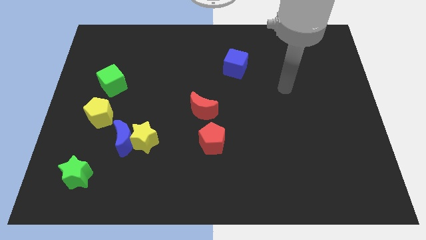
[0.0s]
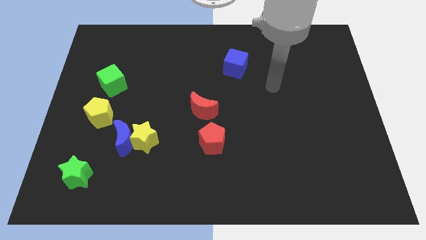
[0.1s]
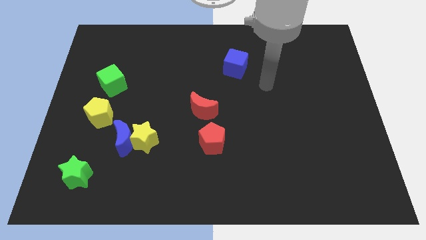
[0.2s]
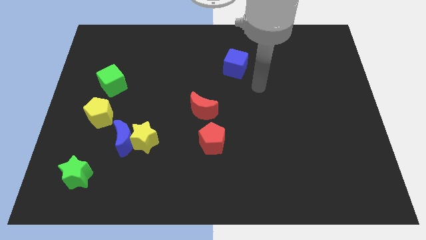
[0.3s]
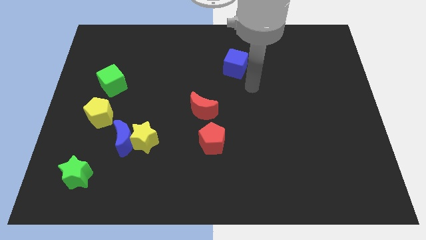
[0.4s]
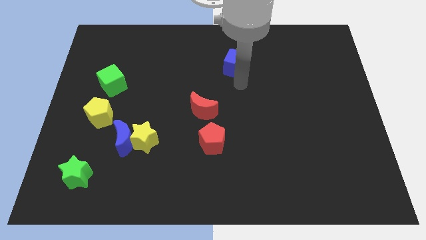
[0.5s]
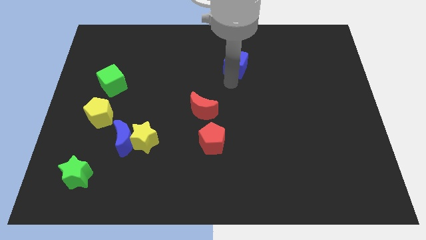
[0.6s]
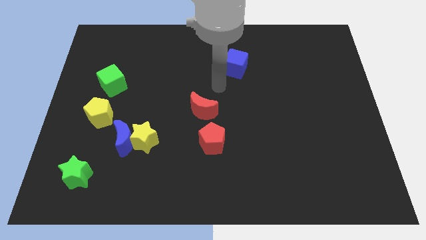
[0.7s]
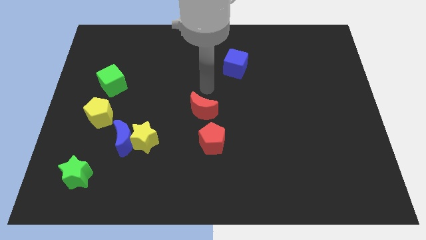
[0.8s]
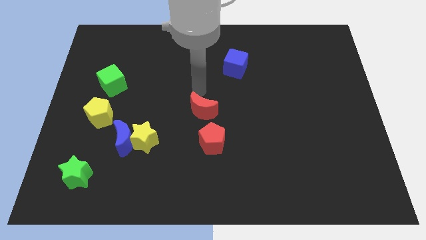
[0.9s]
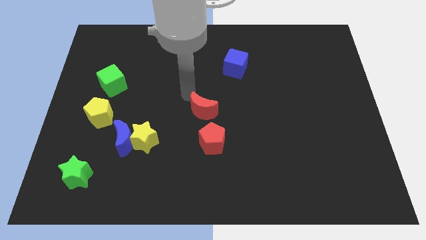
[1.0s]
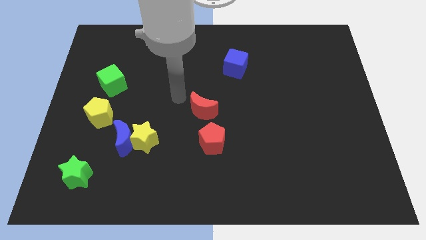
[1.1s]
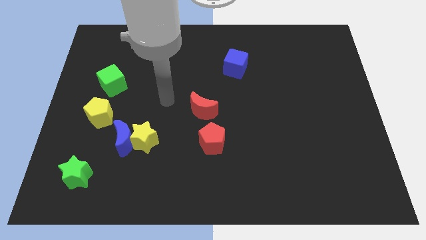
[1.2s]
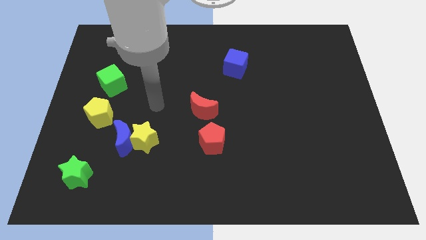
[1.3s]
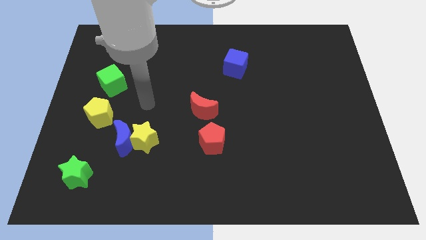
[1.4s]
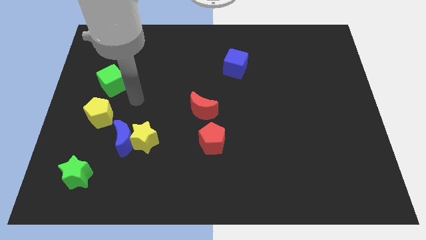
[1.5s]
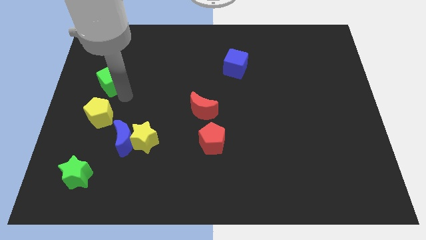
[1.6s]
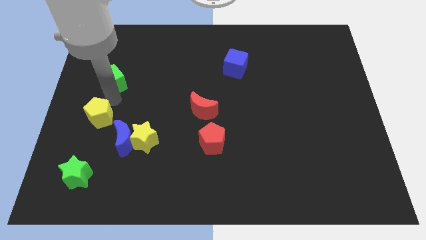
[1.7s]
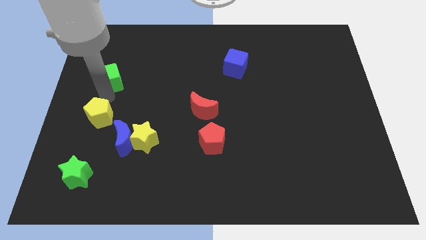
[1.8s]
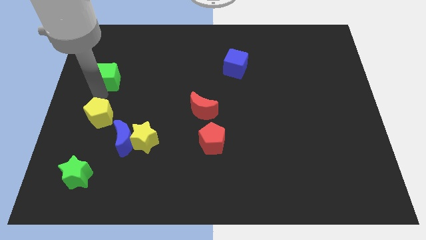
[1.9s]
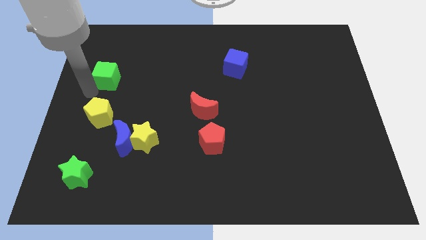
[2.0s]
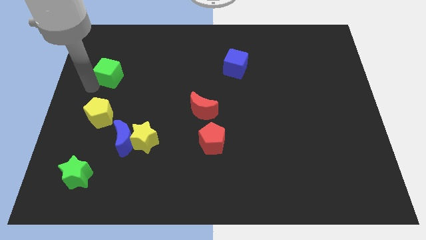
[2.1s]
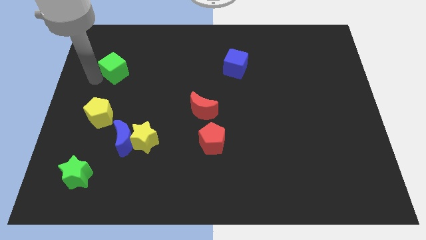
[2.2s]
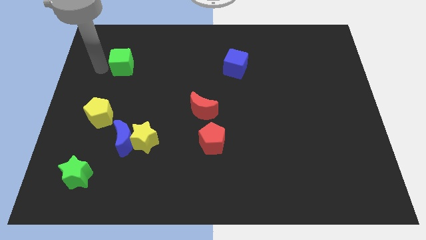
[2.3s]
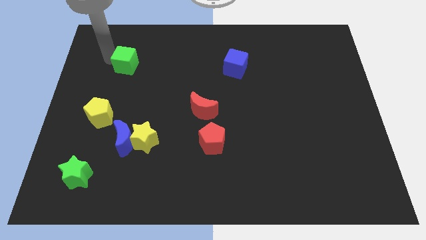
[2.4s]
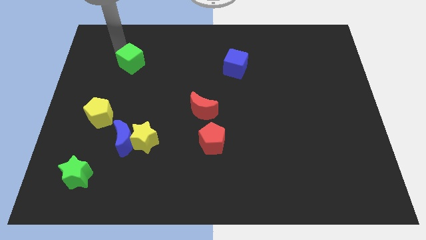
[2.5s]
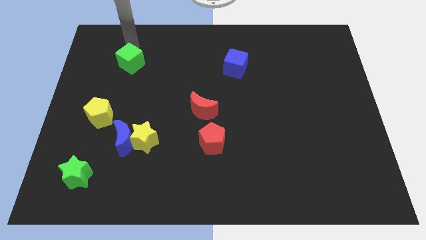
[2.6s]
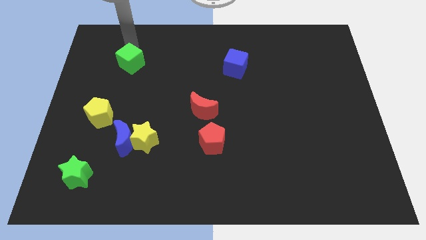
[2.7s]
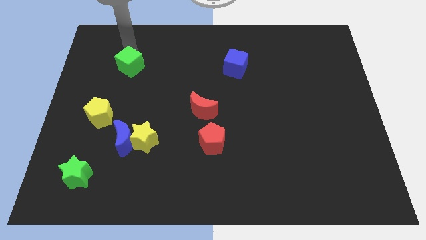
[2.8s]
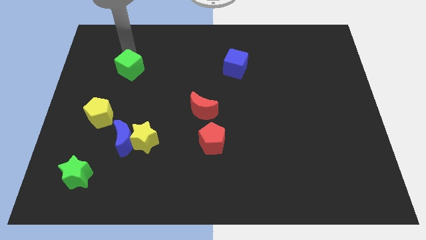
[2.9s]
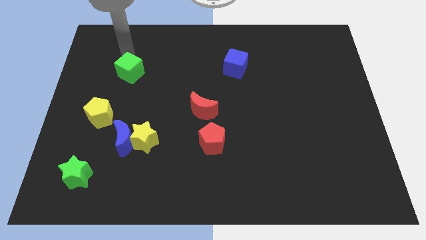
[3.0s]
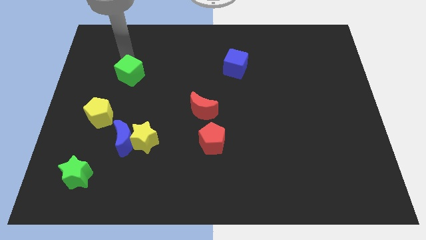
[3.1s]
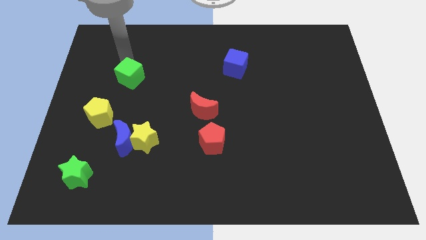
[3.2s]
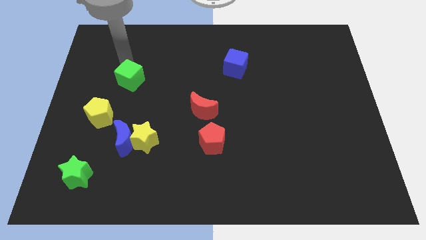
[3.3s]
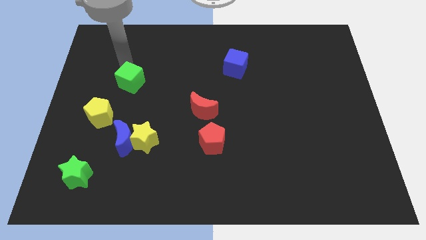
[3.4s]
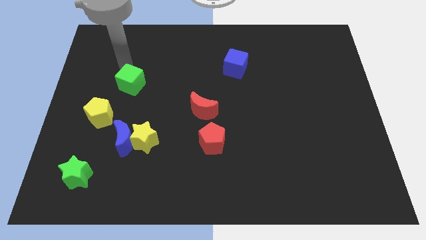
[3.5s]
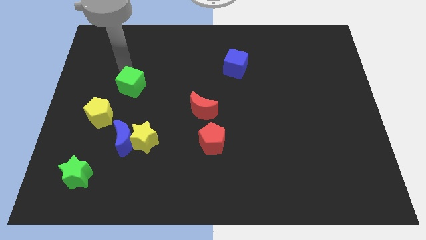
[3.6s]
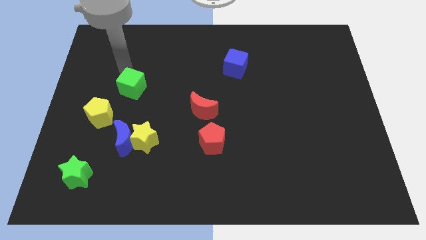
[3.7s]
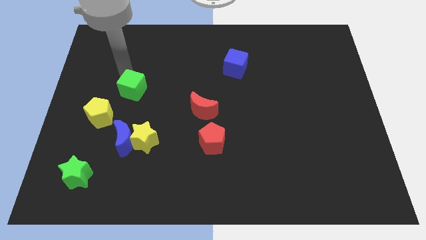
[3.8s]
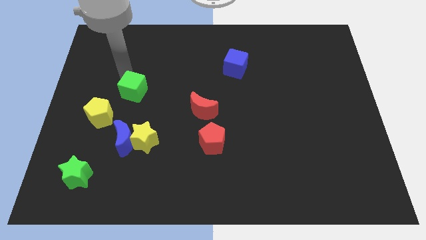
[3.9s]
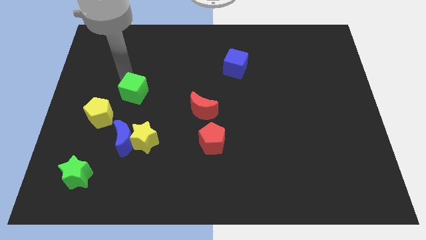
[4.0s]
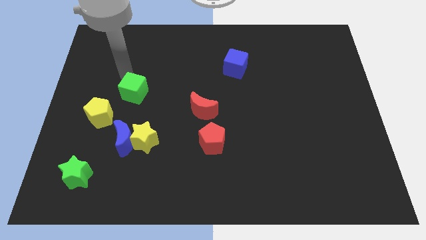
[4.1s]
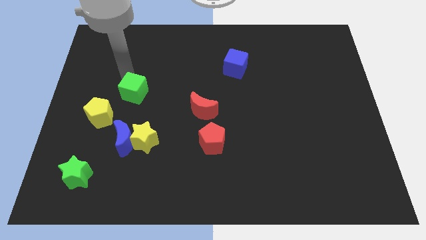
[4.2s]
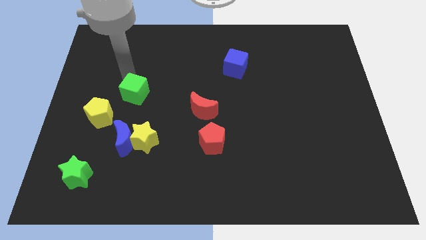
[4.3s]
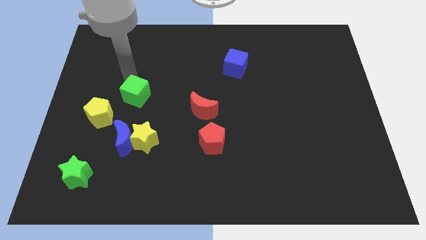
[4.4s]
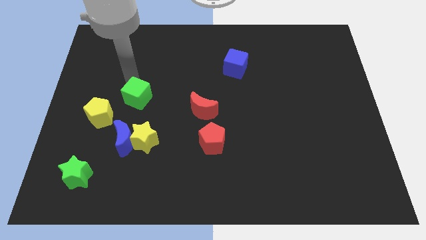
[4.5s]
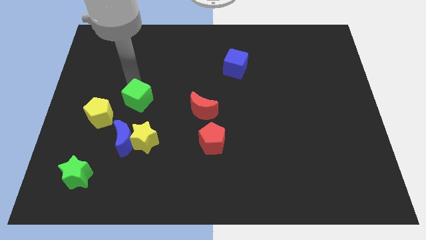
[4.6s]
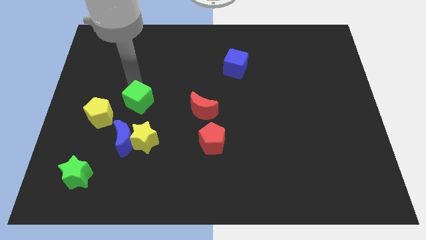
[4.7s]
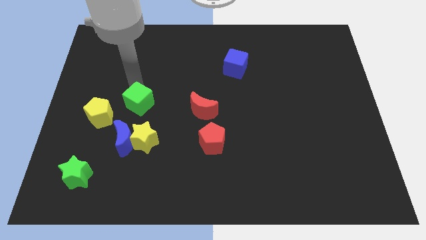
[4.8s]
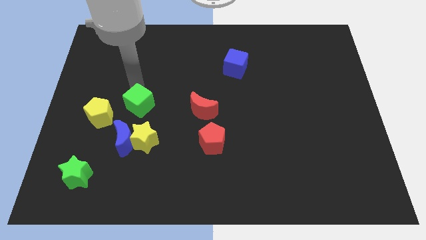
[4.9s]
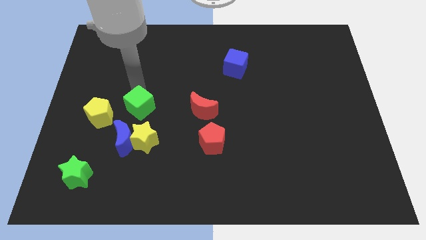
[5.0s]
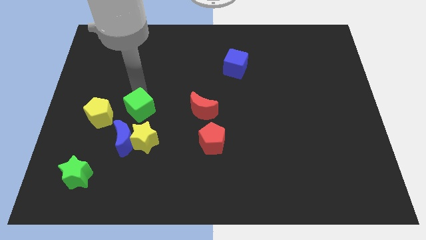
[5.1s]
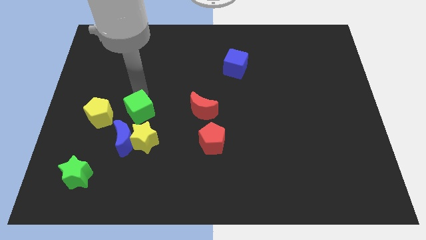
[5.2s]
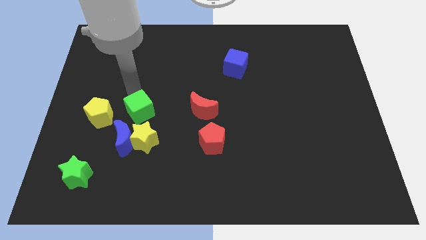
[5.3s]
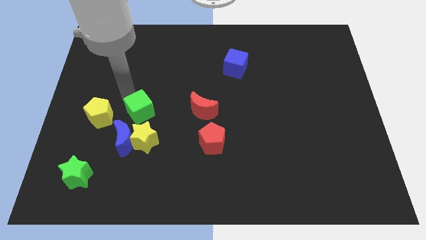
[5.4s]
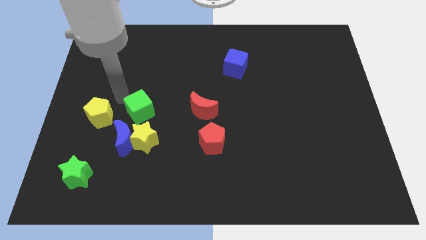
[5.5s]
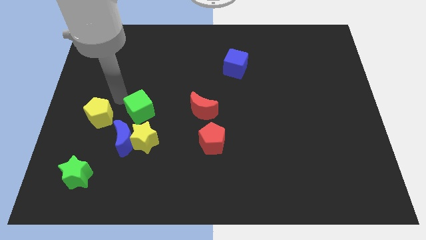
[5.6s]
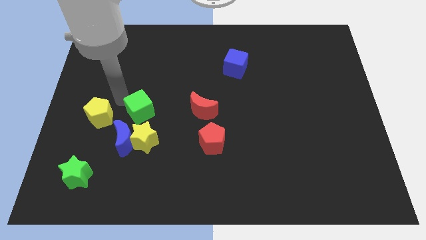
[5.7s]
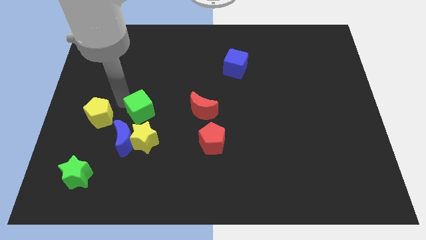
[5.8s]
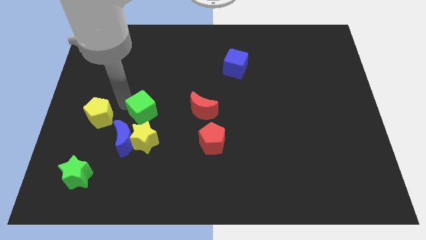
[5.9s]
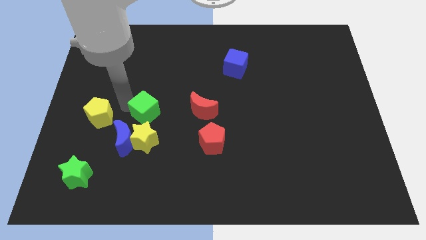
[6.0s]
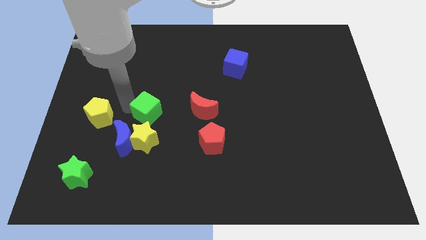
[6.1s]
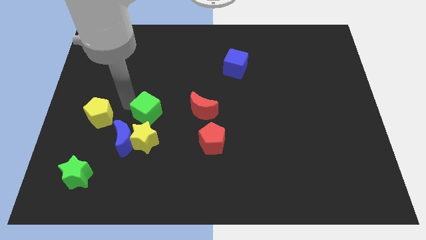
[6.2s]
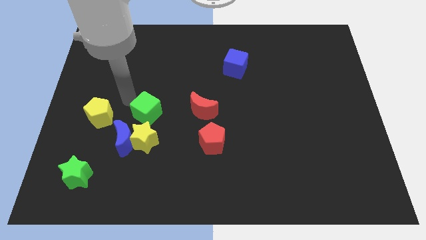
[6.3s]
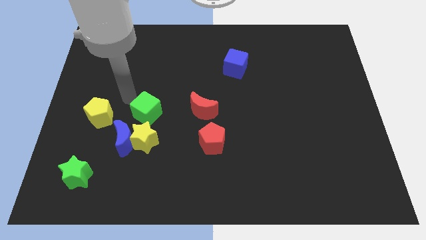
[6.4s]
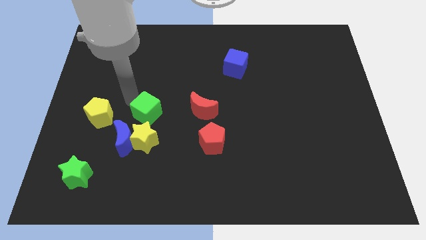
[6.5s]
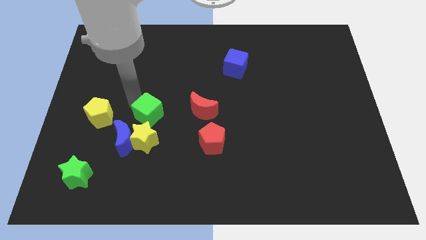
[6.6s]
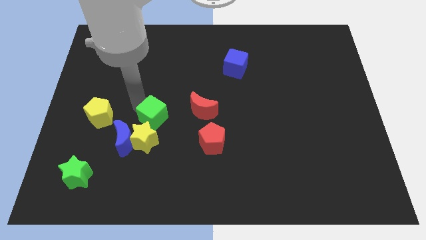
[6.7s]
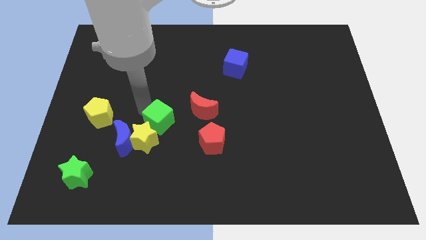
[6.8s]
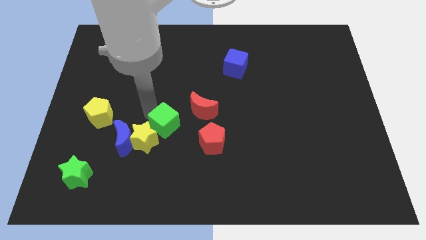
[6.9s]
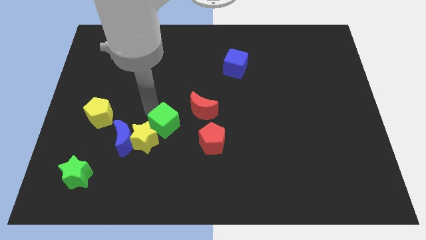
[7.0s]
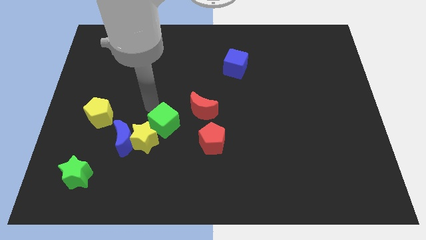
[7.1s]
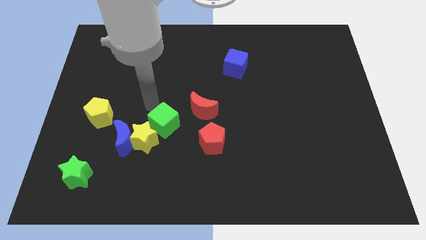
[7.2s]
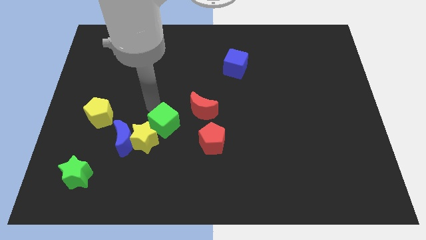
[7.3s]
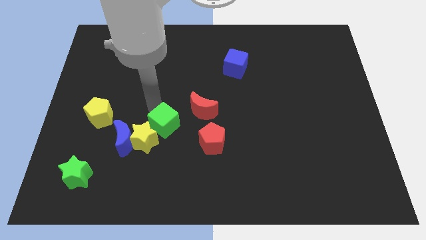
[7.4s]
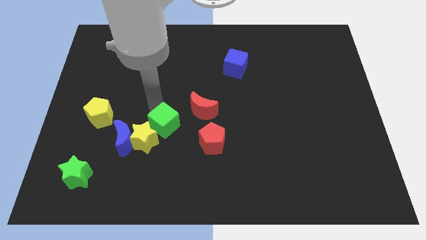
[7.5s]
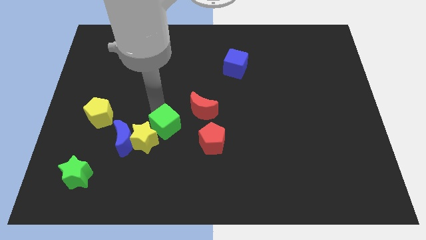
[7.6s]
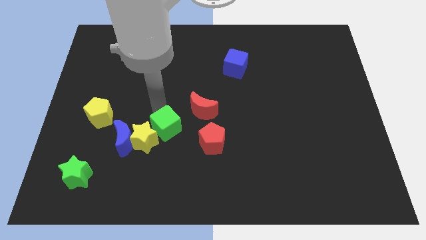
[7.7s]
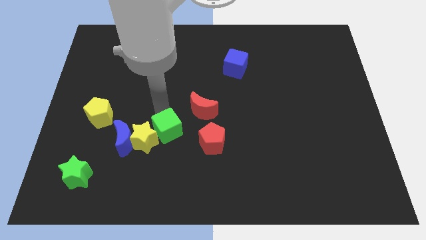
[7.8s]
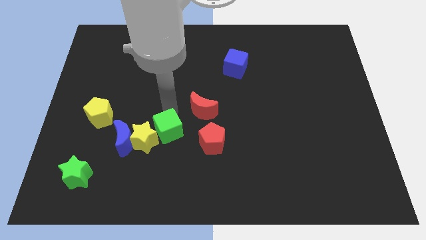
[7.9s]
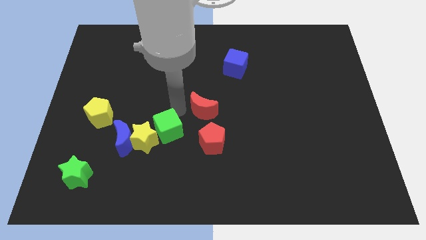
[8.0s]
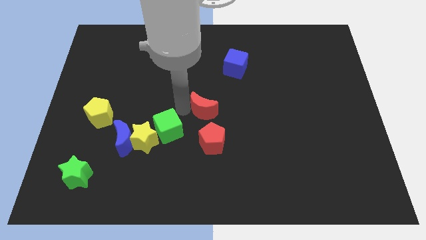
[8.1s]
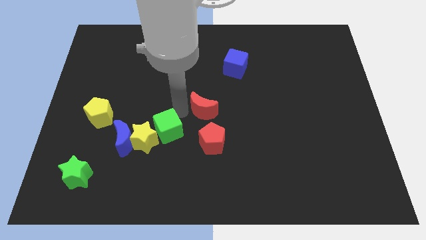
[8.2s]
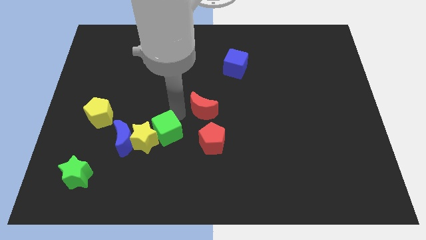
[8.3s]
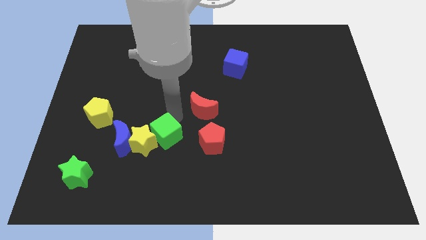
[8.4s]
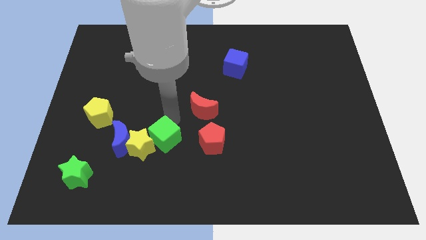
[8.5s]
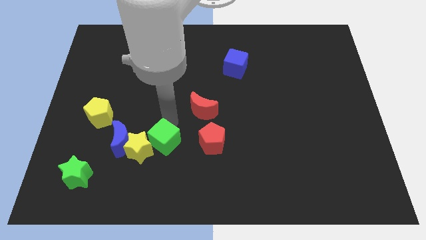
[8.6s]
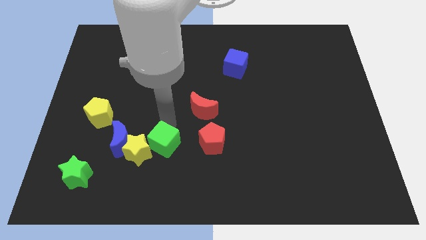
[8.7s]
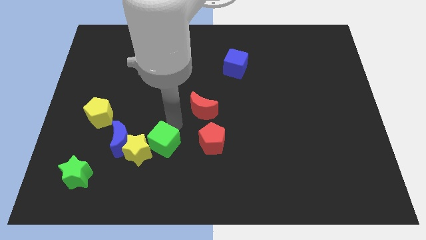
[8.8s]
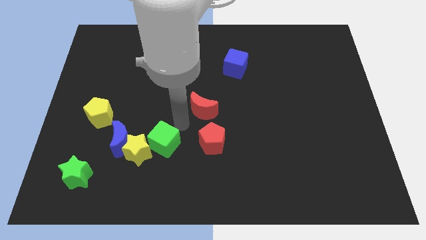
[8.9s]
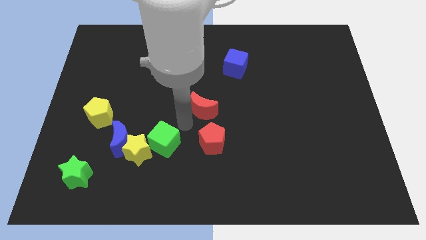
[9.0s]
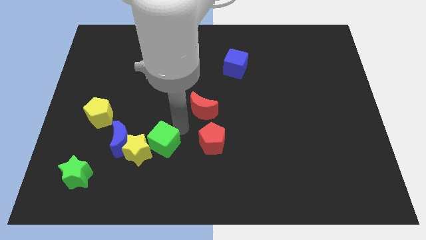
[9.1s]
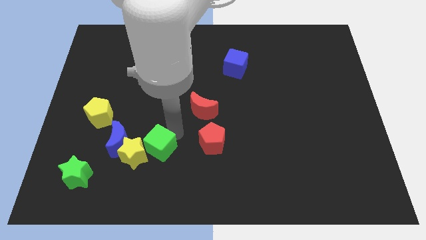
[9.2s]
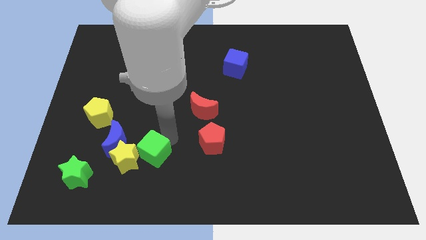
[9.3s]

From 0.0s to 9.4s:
move the green cube to the bottom right side of the blue moon
